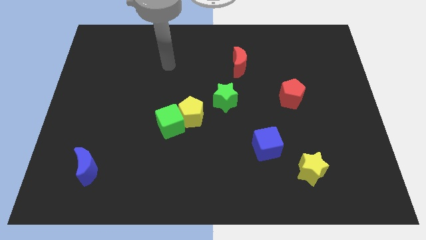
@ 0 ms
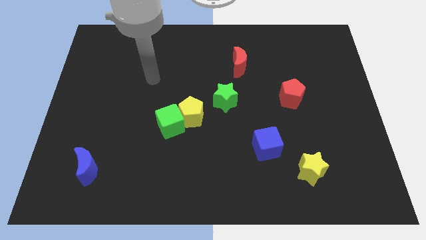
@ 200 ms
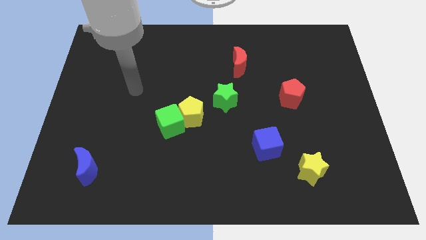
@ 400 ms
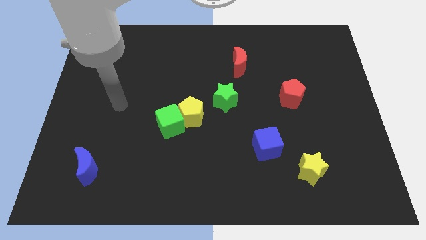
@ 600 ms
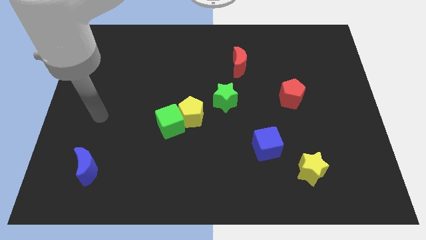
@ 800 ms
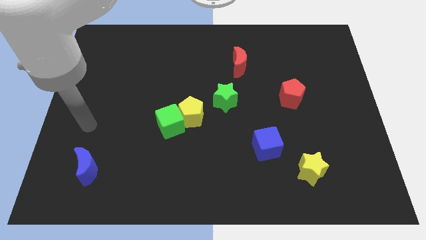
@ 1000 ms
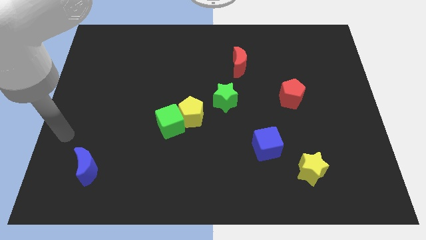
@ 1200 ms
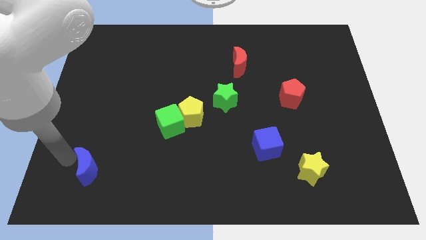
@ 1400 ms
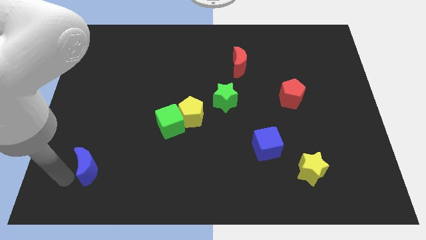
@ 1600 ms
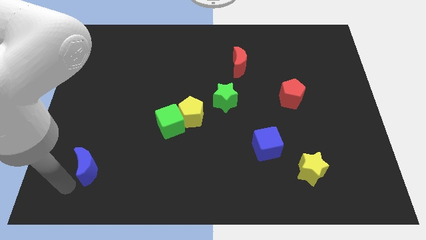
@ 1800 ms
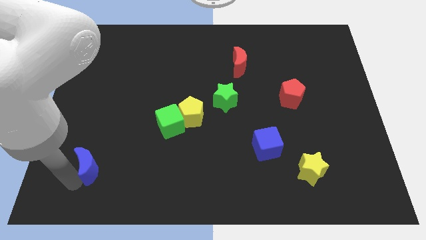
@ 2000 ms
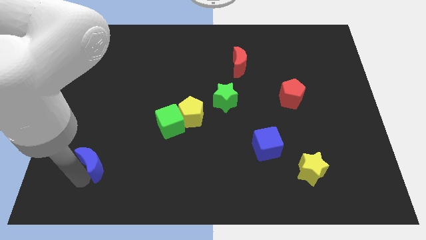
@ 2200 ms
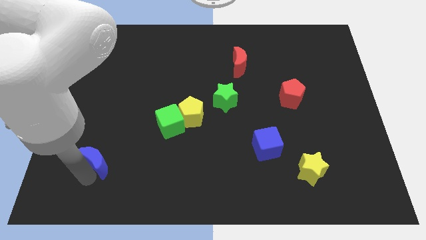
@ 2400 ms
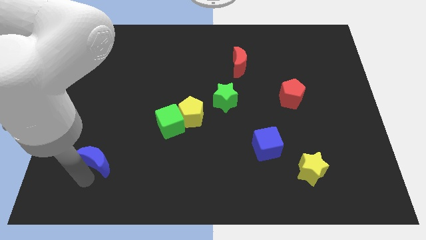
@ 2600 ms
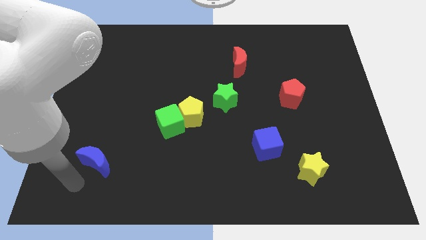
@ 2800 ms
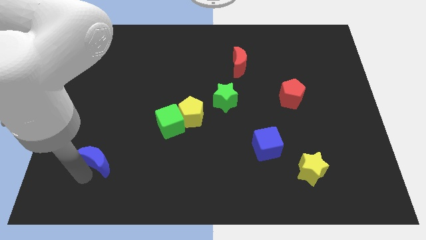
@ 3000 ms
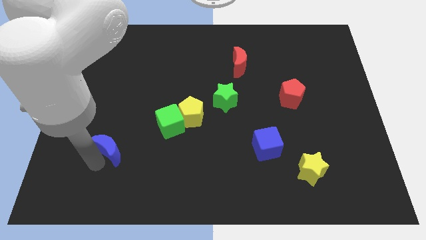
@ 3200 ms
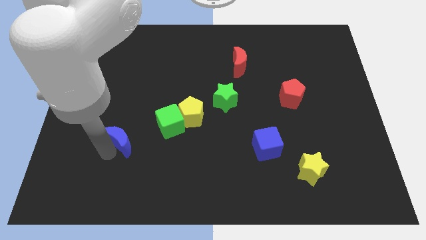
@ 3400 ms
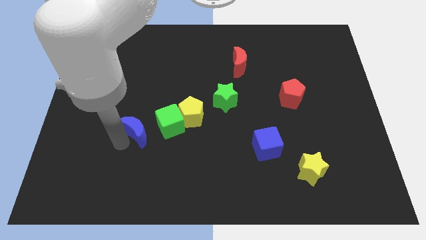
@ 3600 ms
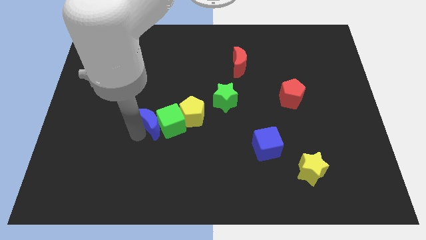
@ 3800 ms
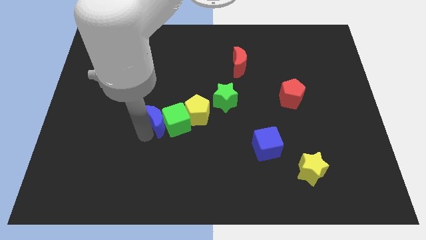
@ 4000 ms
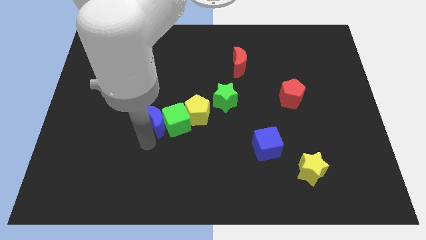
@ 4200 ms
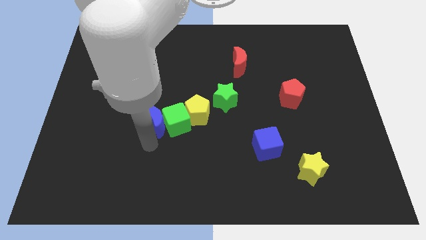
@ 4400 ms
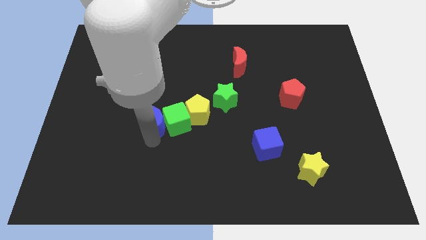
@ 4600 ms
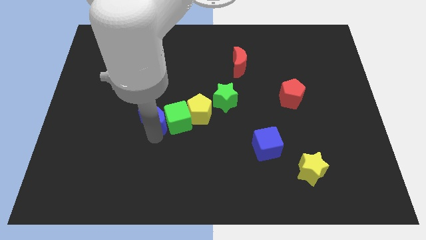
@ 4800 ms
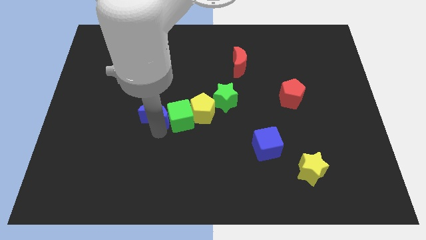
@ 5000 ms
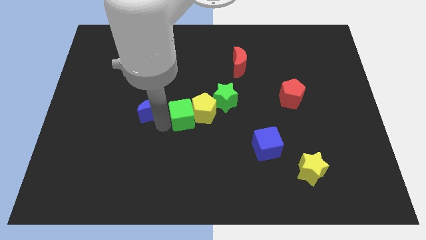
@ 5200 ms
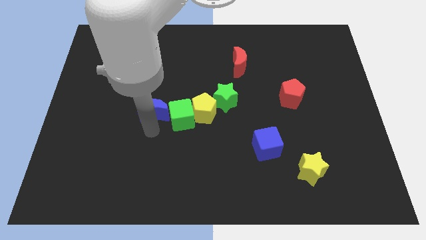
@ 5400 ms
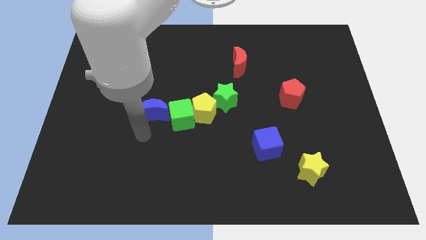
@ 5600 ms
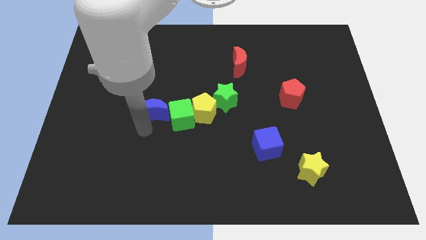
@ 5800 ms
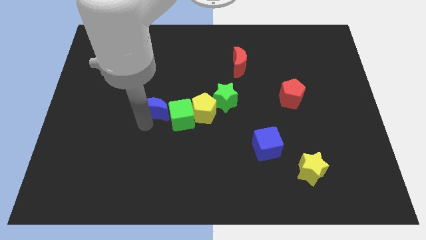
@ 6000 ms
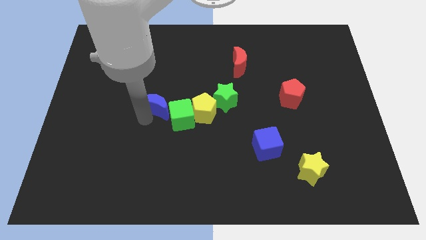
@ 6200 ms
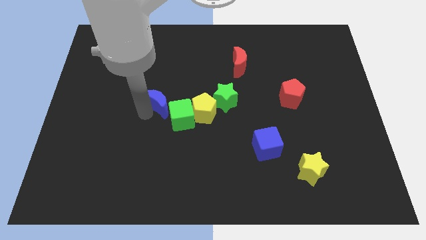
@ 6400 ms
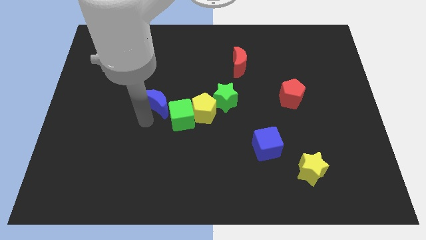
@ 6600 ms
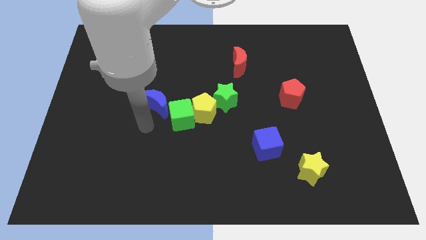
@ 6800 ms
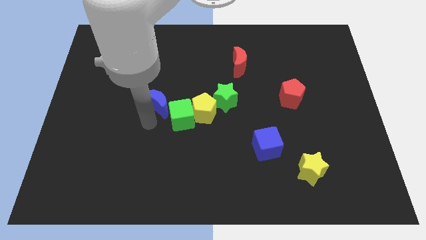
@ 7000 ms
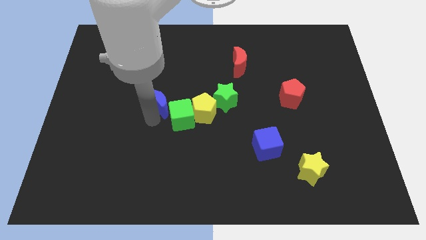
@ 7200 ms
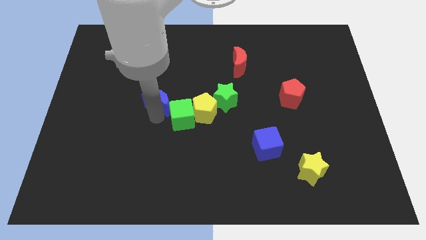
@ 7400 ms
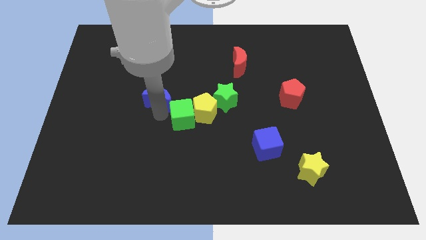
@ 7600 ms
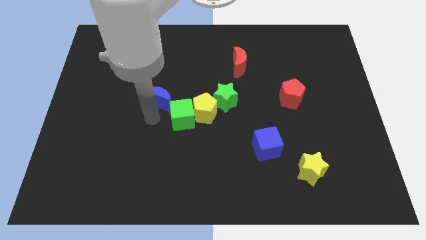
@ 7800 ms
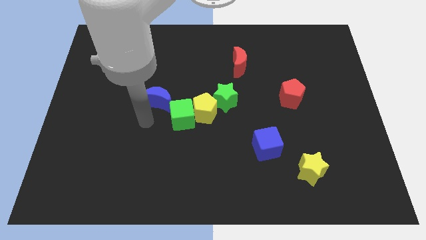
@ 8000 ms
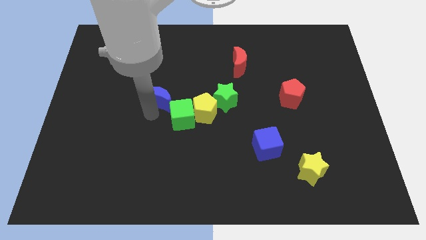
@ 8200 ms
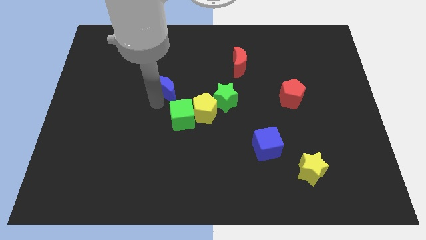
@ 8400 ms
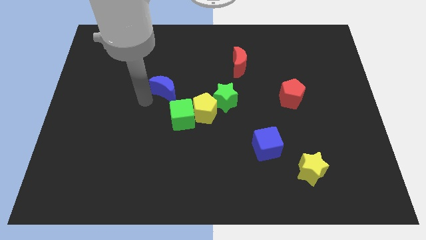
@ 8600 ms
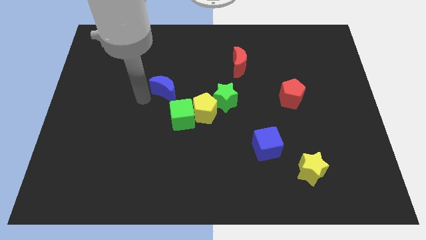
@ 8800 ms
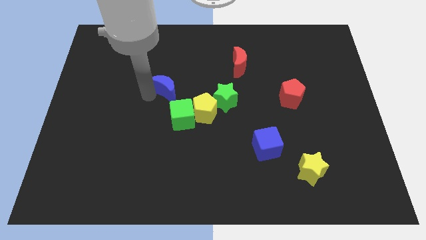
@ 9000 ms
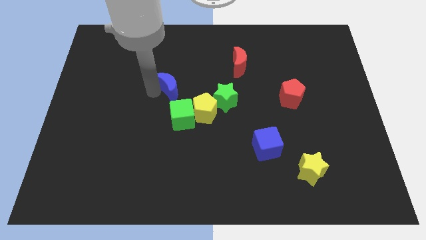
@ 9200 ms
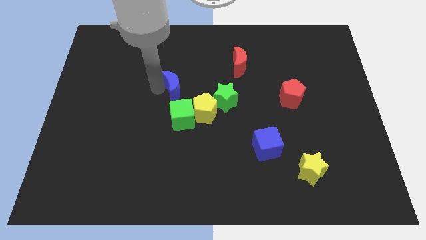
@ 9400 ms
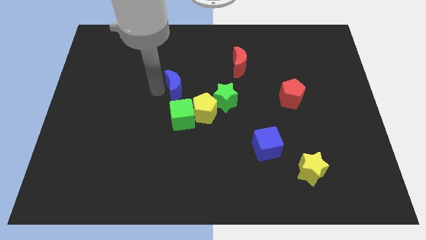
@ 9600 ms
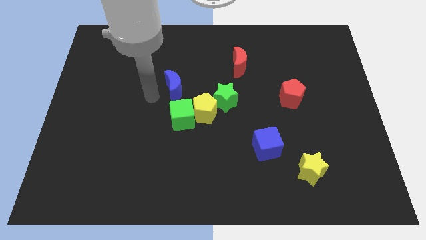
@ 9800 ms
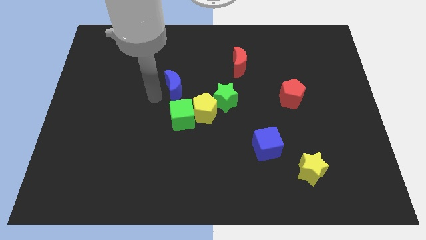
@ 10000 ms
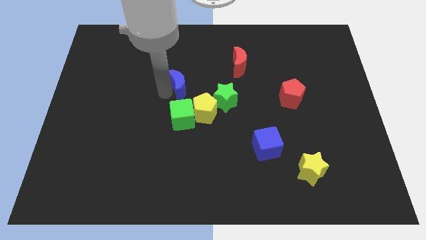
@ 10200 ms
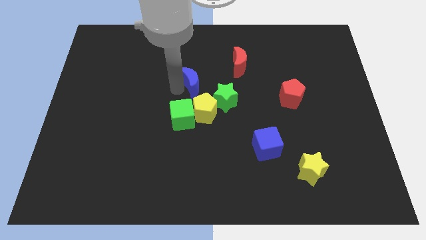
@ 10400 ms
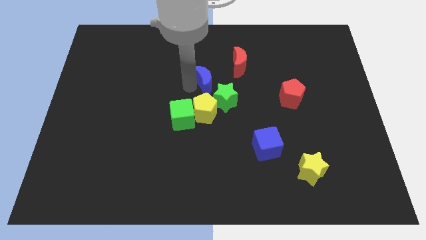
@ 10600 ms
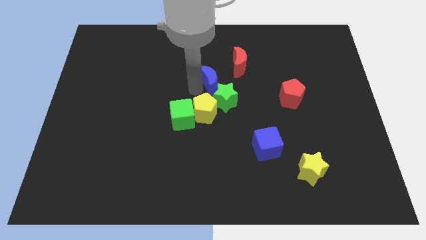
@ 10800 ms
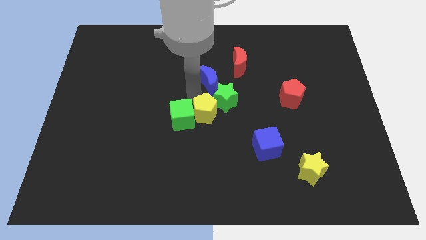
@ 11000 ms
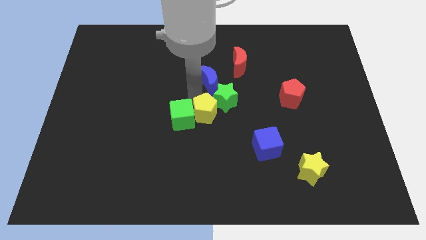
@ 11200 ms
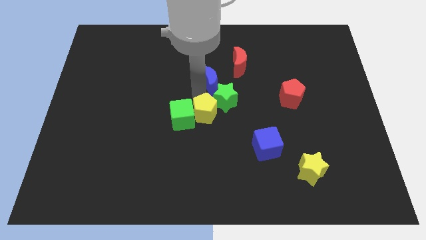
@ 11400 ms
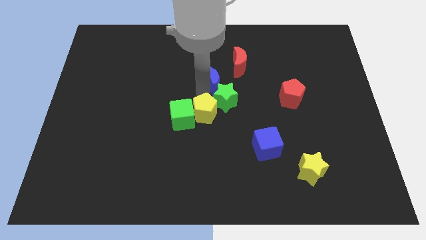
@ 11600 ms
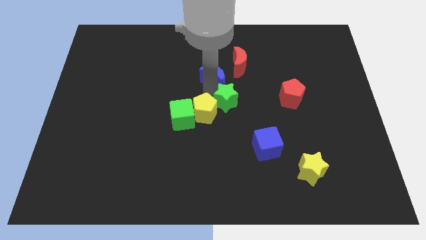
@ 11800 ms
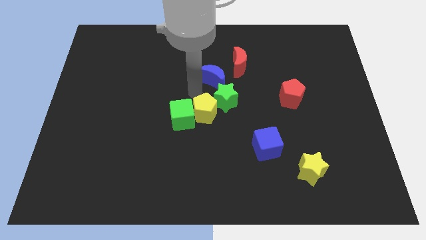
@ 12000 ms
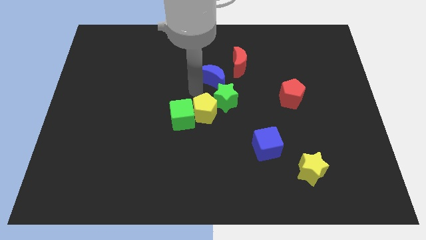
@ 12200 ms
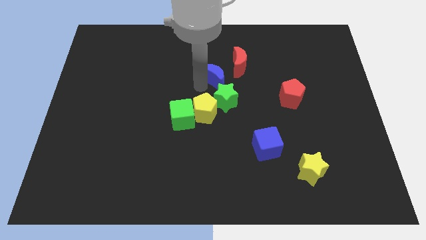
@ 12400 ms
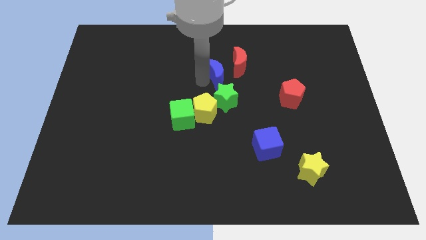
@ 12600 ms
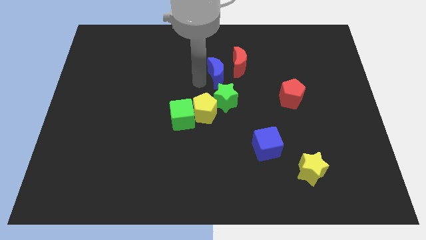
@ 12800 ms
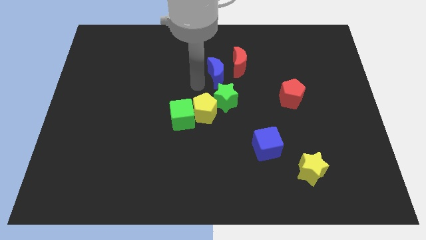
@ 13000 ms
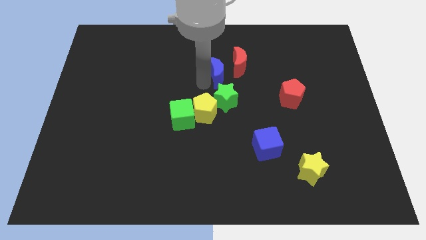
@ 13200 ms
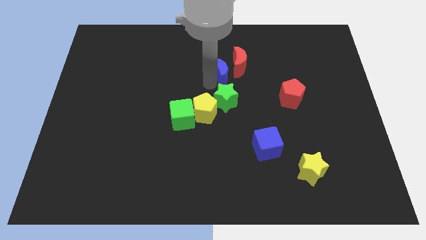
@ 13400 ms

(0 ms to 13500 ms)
slide the blue moon close to the red moon
